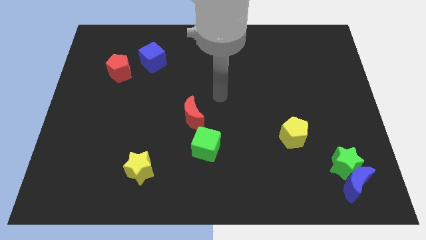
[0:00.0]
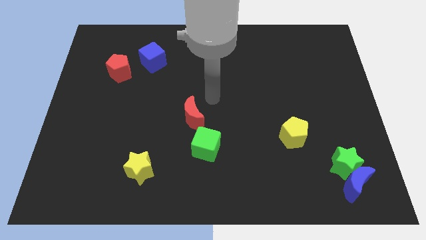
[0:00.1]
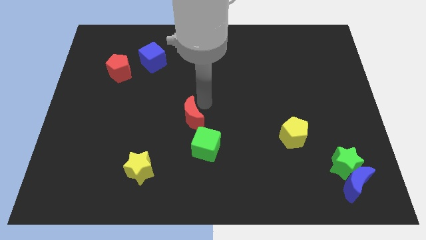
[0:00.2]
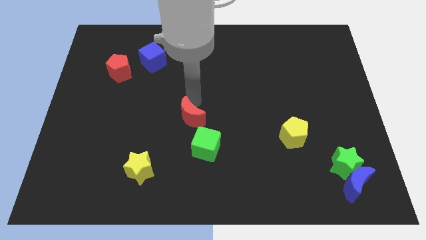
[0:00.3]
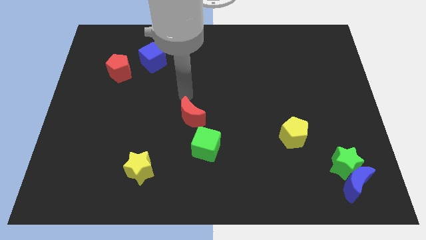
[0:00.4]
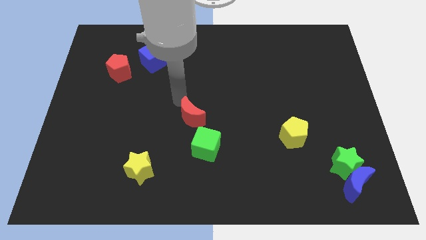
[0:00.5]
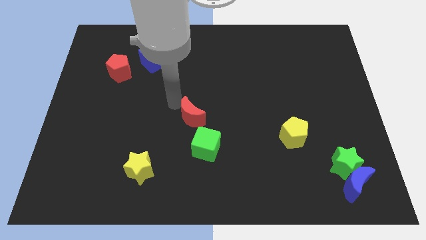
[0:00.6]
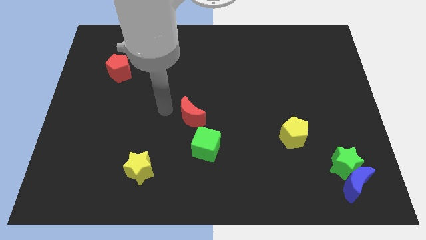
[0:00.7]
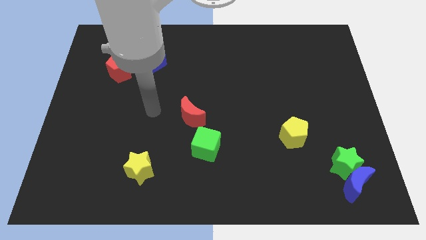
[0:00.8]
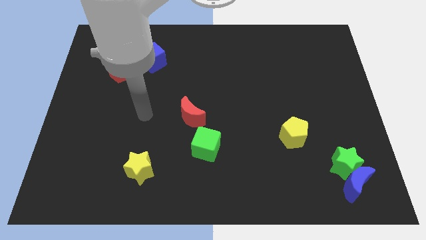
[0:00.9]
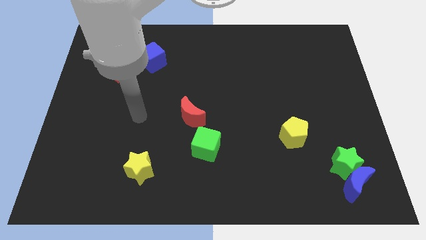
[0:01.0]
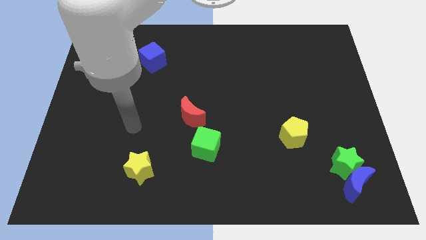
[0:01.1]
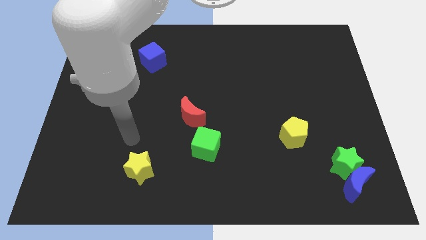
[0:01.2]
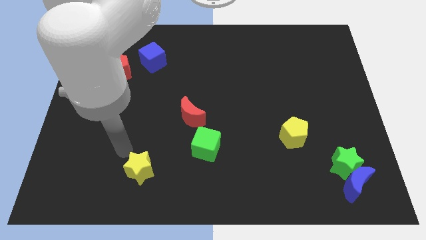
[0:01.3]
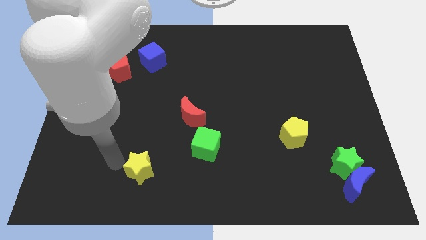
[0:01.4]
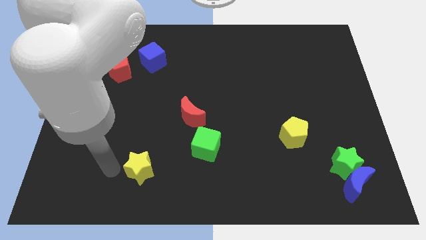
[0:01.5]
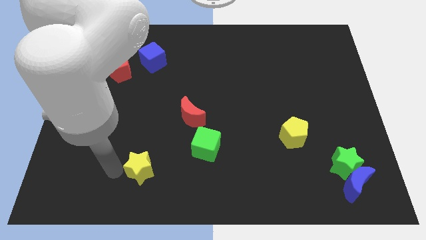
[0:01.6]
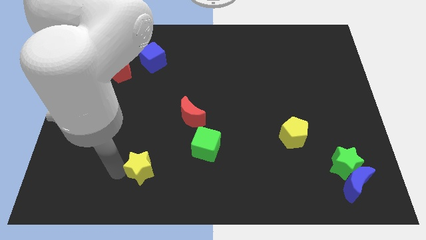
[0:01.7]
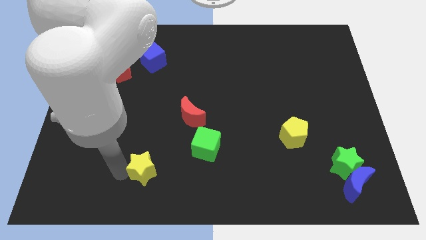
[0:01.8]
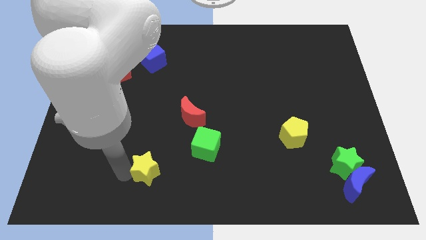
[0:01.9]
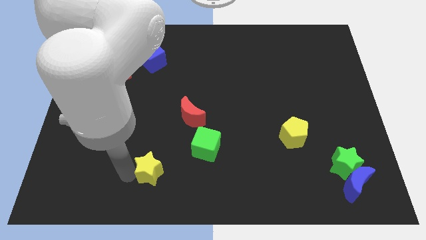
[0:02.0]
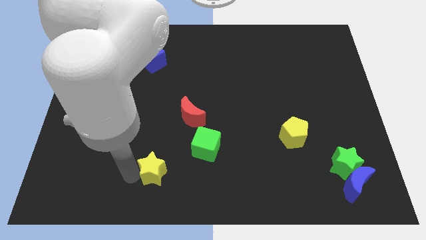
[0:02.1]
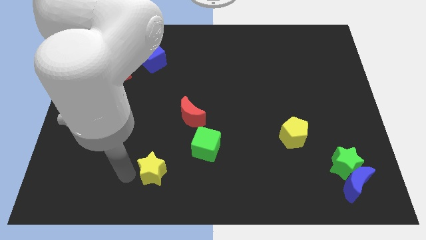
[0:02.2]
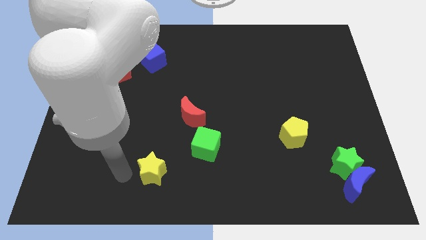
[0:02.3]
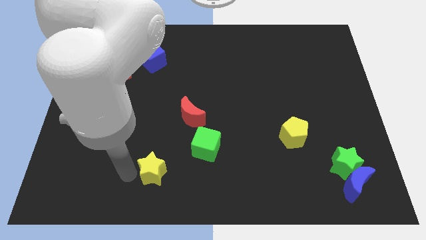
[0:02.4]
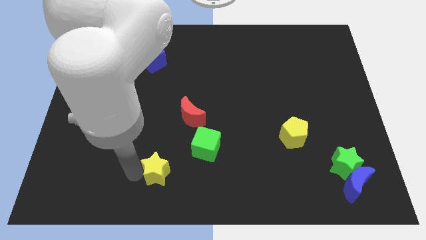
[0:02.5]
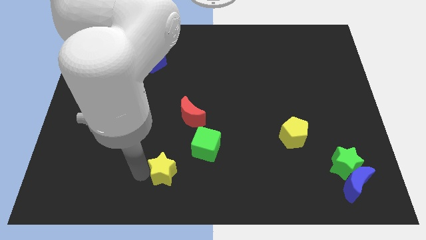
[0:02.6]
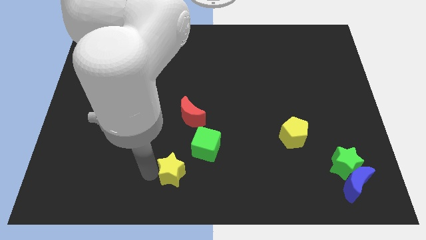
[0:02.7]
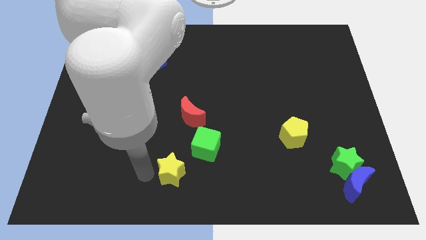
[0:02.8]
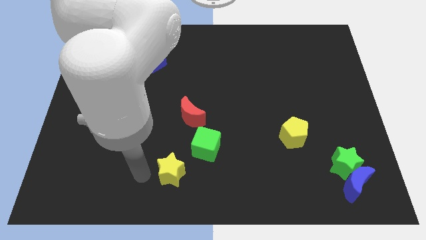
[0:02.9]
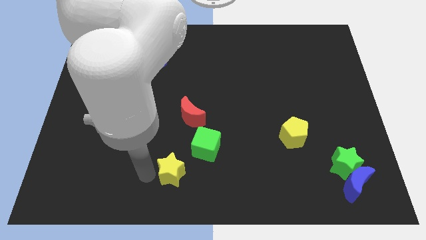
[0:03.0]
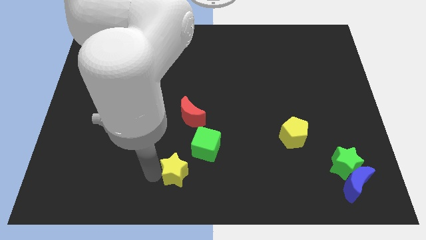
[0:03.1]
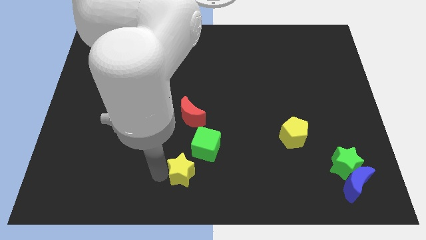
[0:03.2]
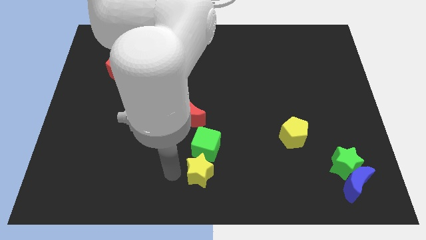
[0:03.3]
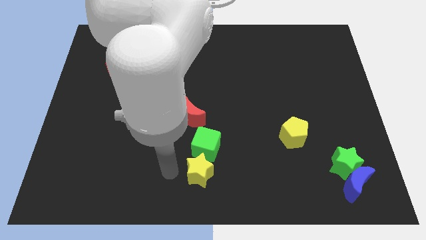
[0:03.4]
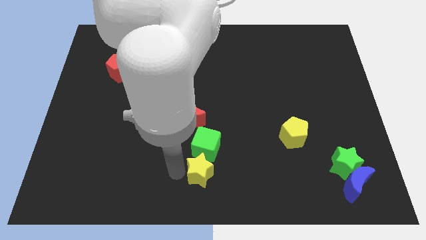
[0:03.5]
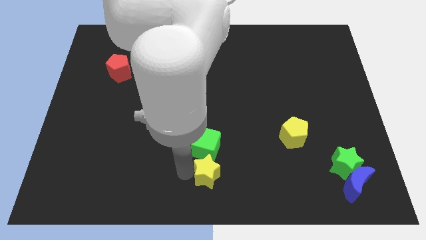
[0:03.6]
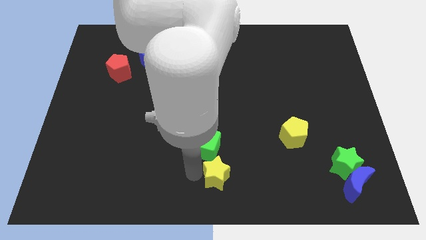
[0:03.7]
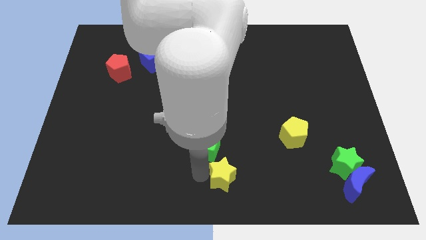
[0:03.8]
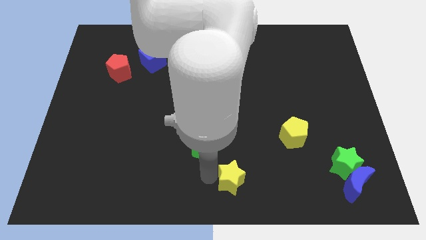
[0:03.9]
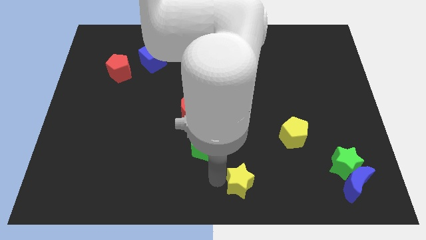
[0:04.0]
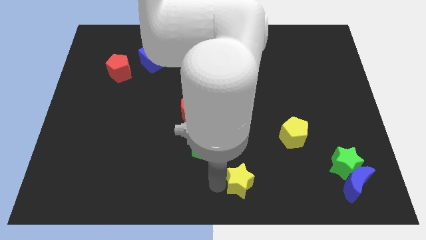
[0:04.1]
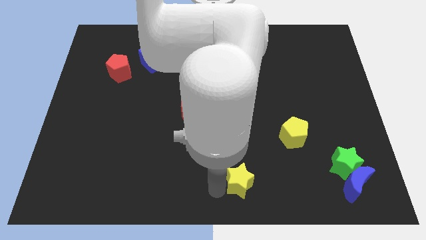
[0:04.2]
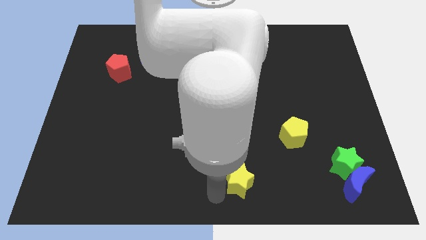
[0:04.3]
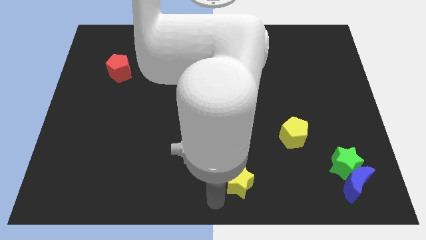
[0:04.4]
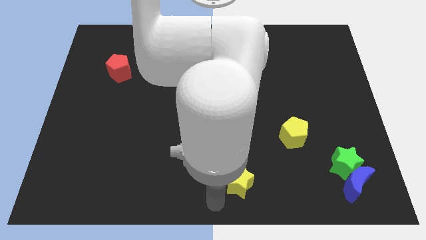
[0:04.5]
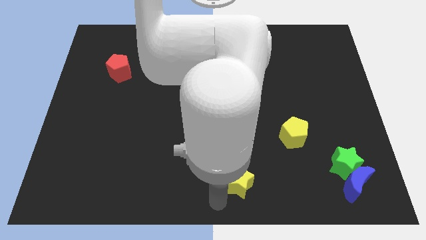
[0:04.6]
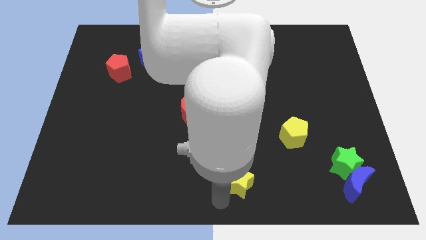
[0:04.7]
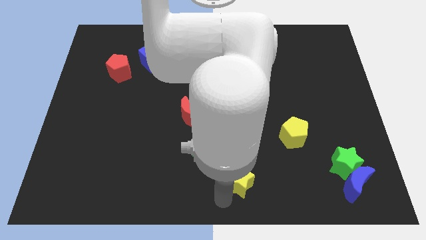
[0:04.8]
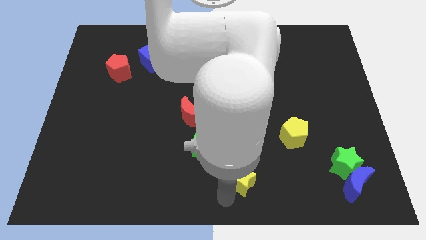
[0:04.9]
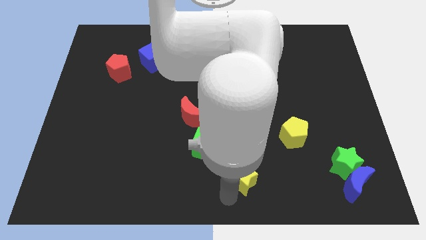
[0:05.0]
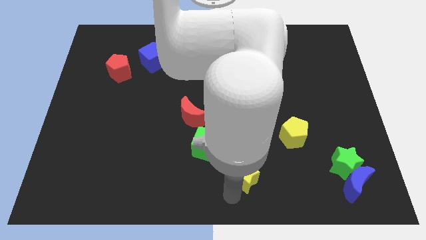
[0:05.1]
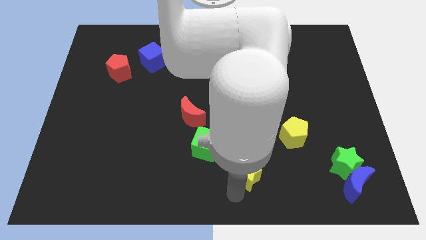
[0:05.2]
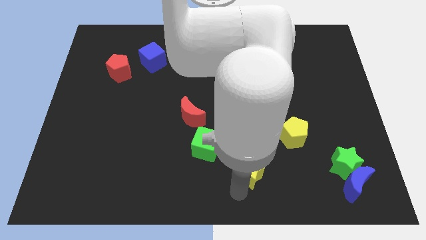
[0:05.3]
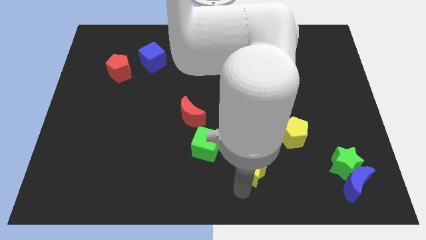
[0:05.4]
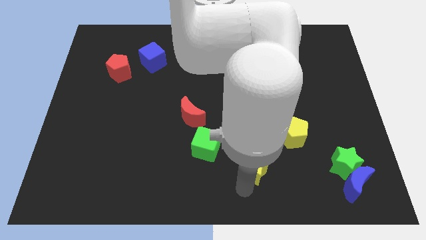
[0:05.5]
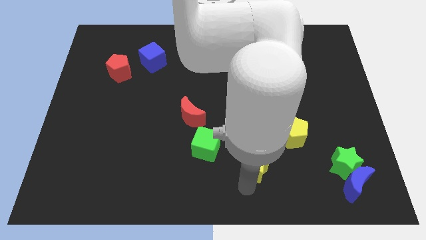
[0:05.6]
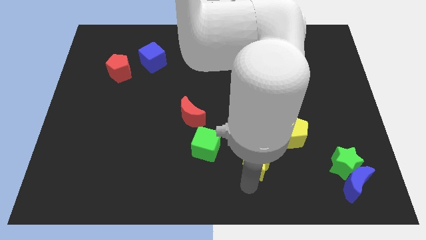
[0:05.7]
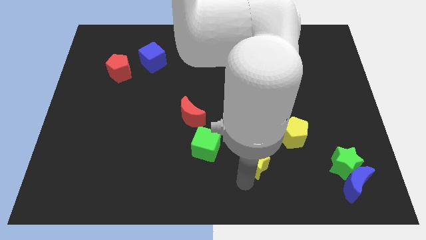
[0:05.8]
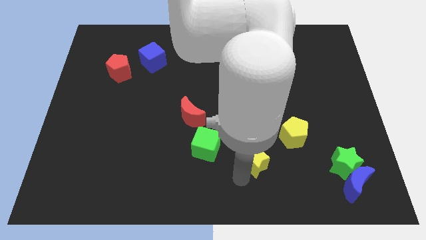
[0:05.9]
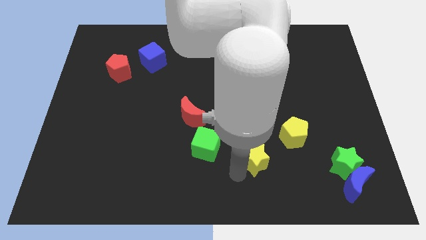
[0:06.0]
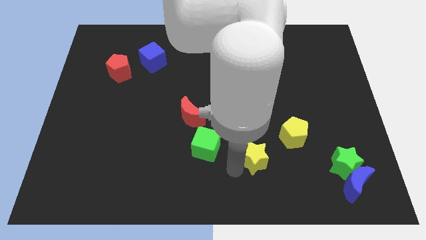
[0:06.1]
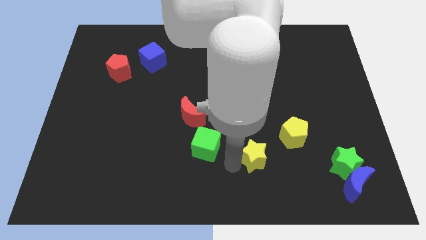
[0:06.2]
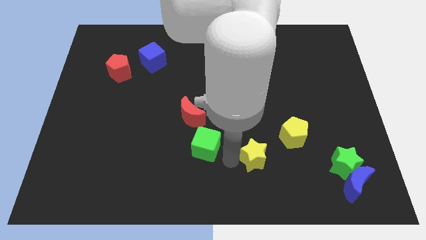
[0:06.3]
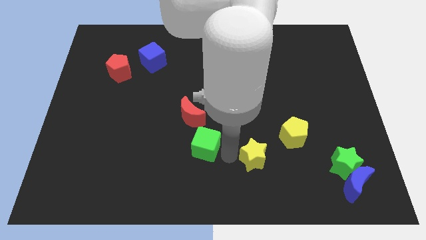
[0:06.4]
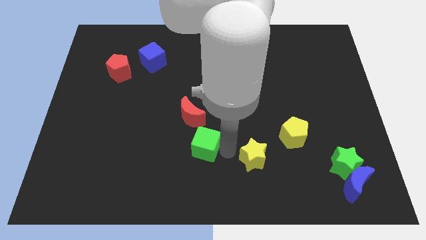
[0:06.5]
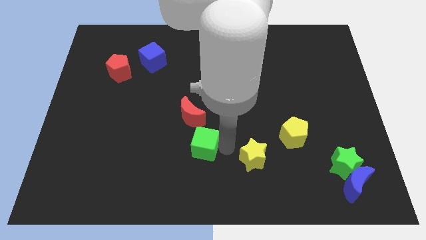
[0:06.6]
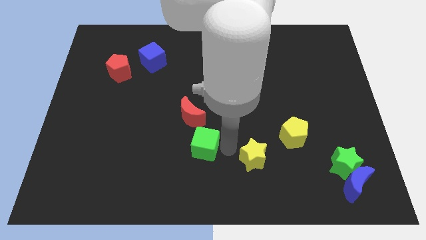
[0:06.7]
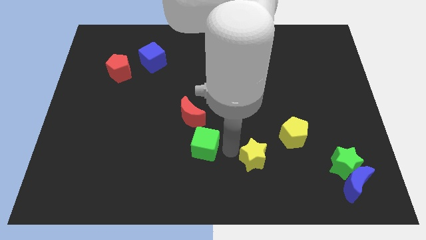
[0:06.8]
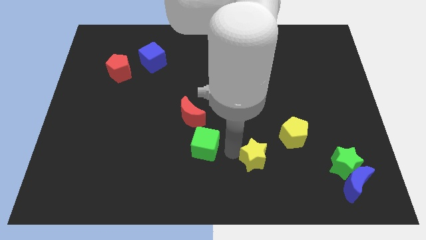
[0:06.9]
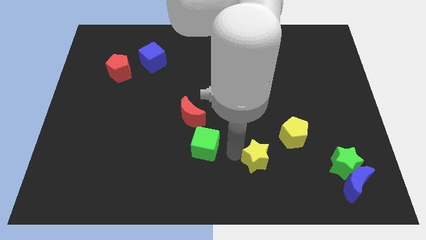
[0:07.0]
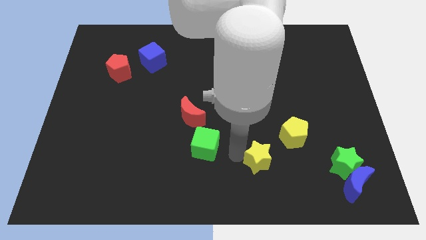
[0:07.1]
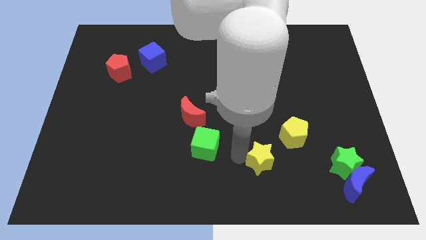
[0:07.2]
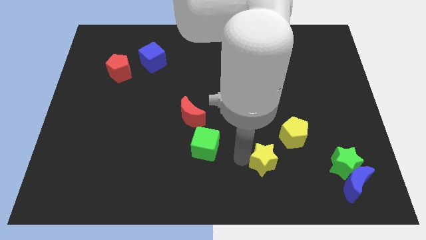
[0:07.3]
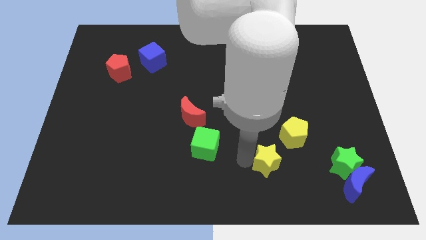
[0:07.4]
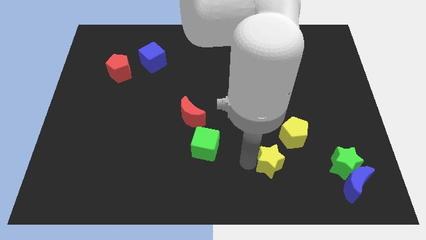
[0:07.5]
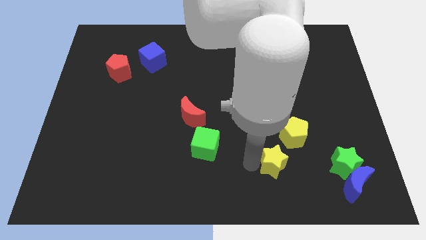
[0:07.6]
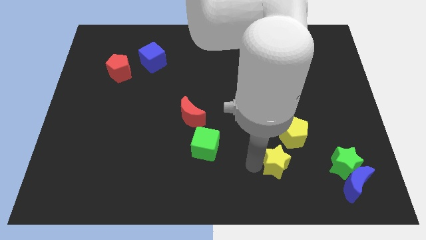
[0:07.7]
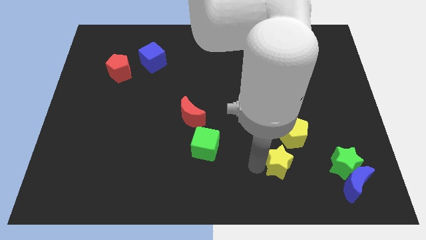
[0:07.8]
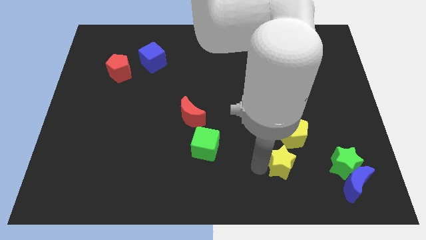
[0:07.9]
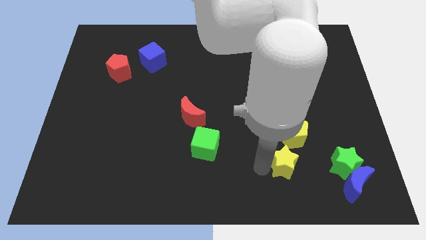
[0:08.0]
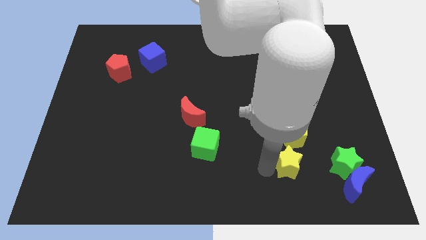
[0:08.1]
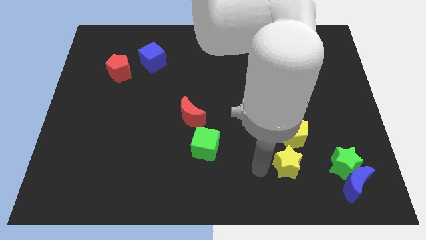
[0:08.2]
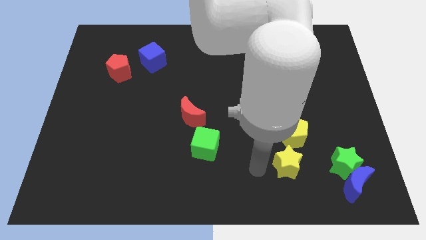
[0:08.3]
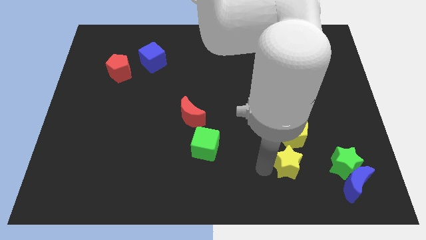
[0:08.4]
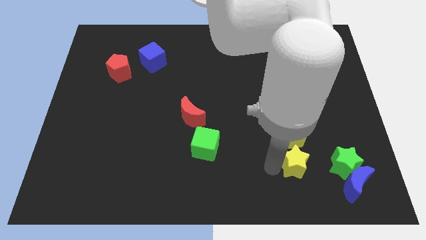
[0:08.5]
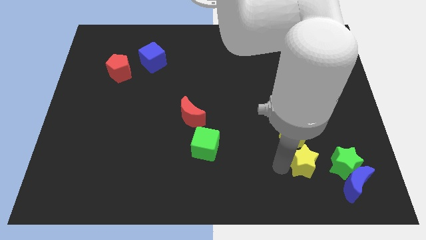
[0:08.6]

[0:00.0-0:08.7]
push the yellow star to the top left side of the blue moon
